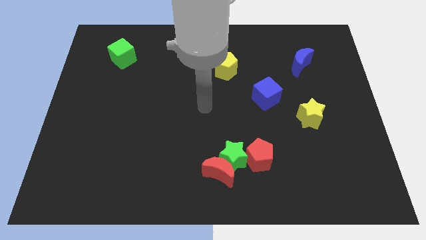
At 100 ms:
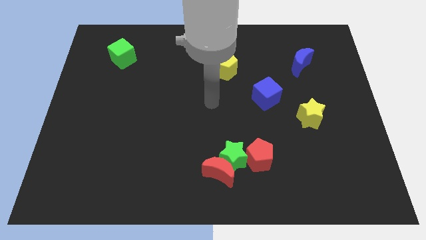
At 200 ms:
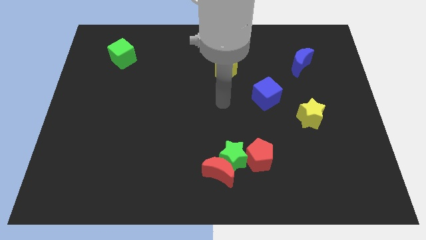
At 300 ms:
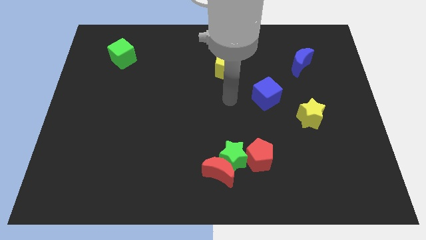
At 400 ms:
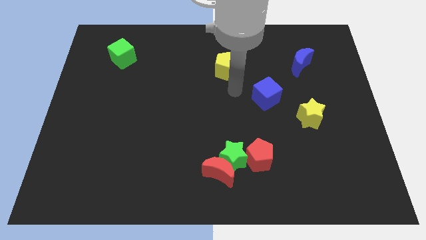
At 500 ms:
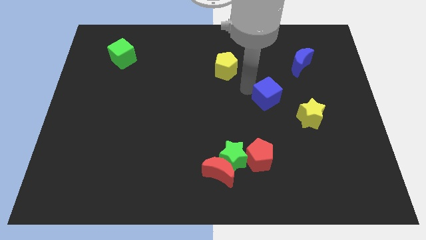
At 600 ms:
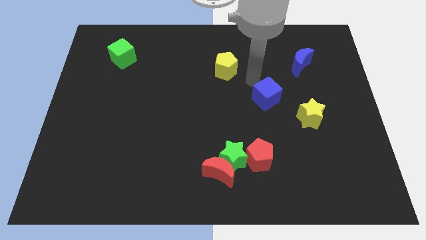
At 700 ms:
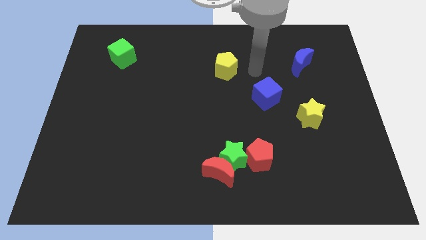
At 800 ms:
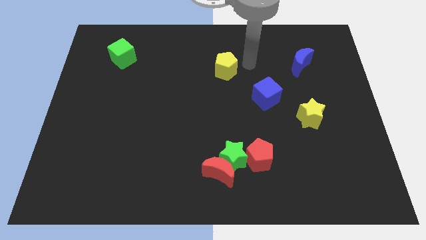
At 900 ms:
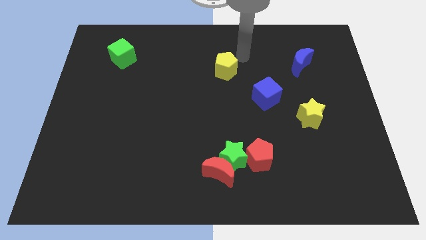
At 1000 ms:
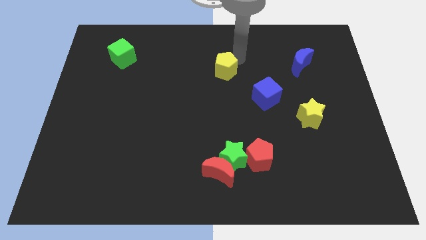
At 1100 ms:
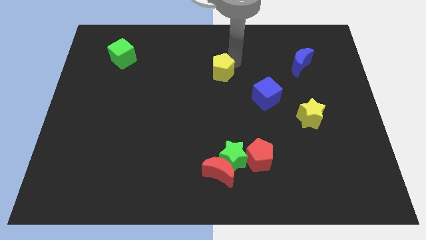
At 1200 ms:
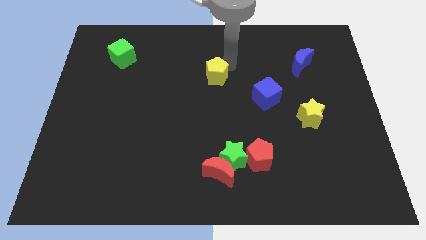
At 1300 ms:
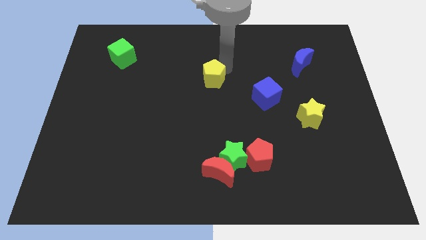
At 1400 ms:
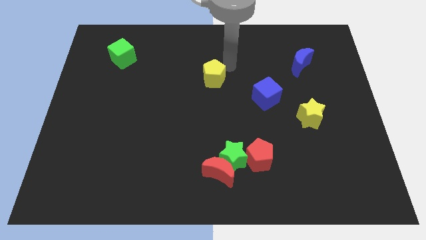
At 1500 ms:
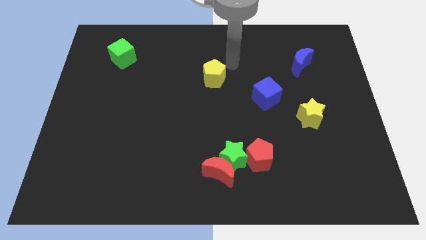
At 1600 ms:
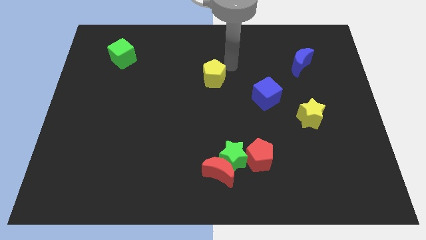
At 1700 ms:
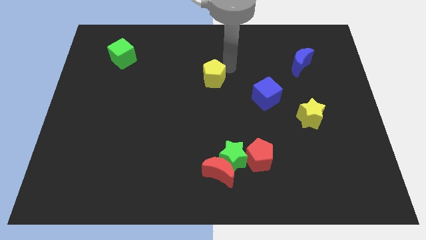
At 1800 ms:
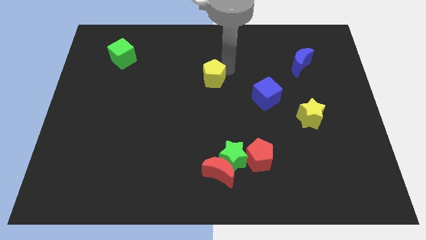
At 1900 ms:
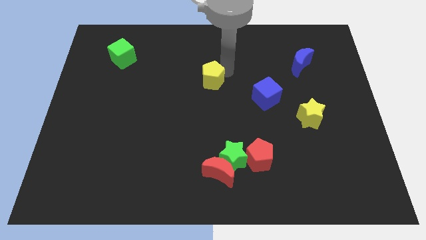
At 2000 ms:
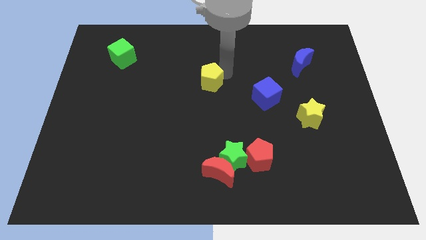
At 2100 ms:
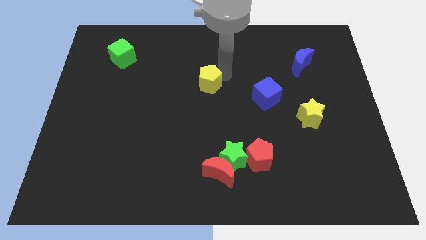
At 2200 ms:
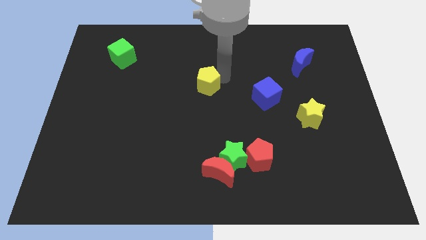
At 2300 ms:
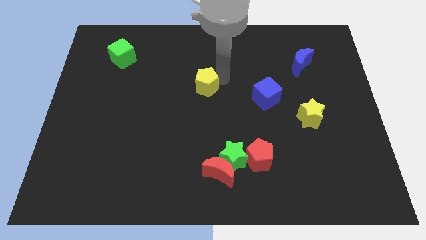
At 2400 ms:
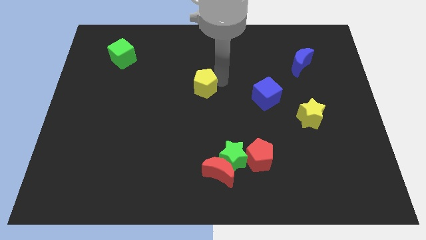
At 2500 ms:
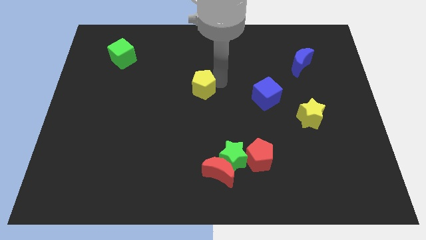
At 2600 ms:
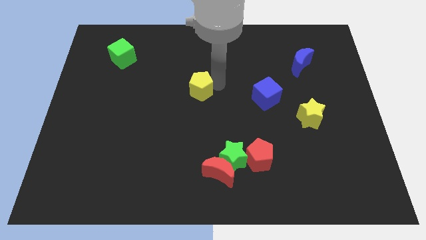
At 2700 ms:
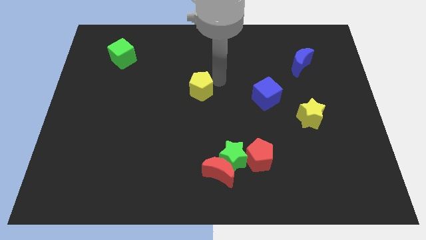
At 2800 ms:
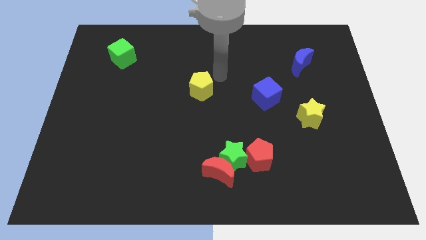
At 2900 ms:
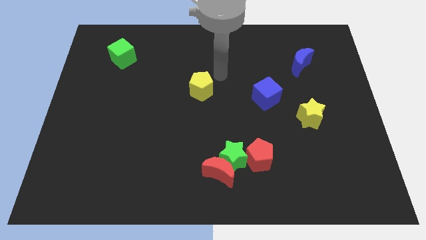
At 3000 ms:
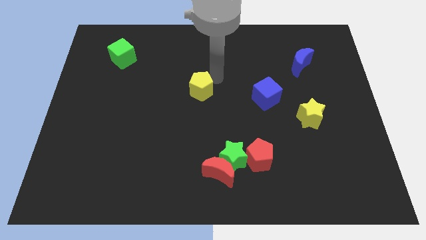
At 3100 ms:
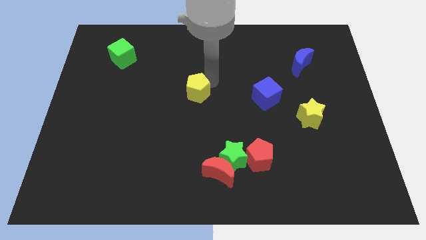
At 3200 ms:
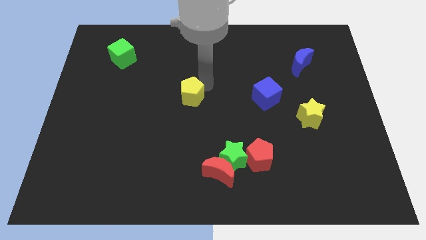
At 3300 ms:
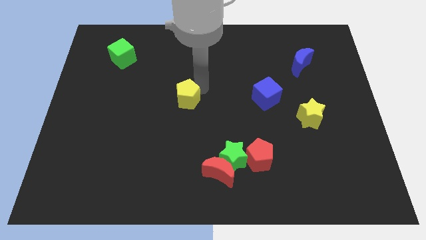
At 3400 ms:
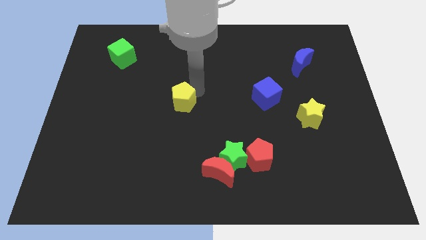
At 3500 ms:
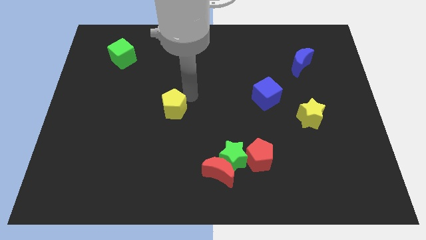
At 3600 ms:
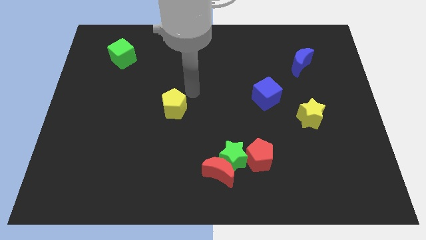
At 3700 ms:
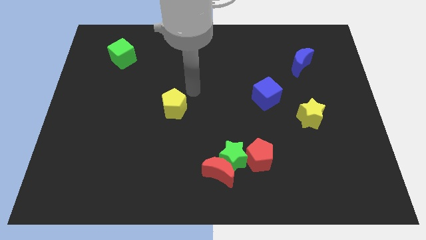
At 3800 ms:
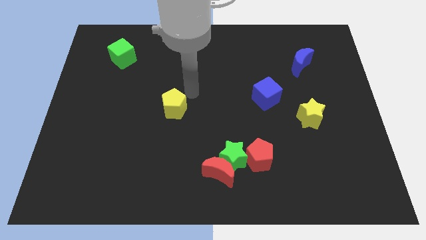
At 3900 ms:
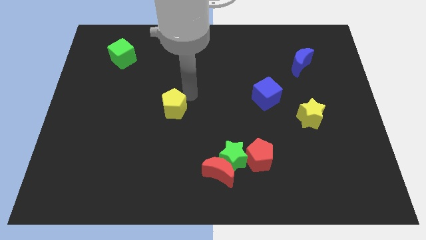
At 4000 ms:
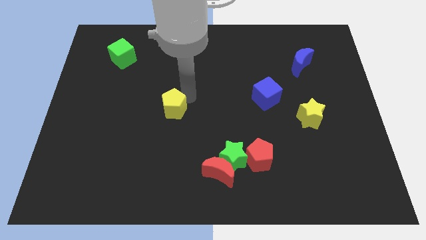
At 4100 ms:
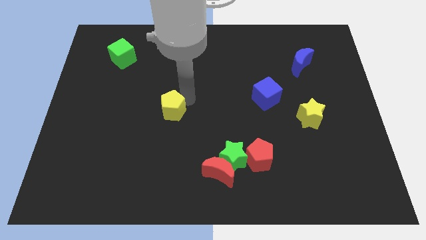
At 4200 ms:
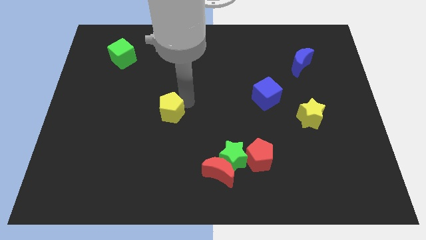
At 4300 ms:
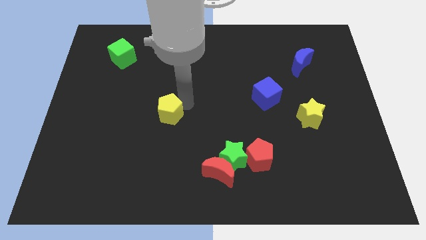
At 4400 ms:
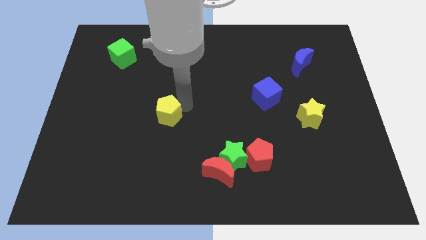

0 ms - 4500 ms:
move the yellow pentagon down and left

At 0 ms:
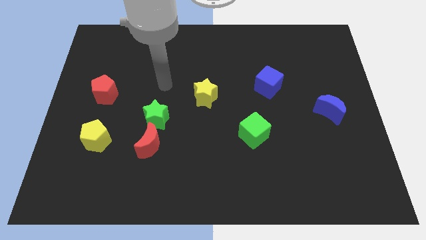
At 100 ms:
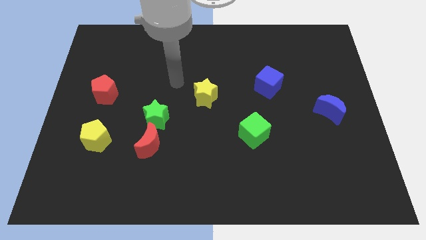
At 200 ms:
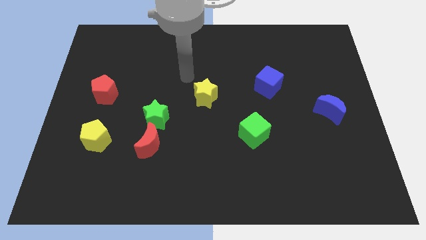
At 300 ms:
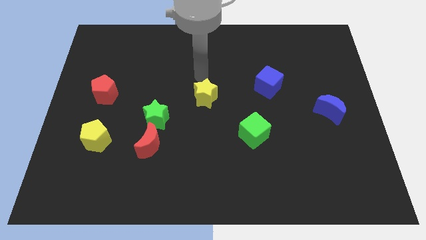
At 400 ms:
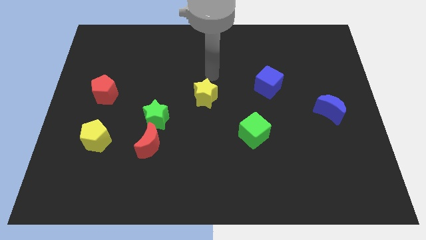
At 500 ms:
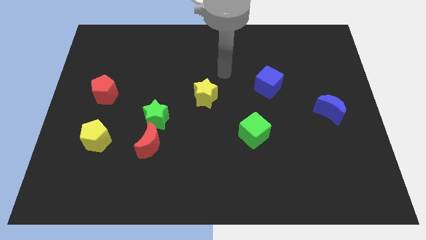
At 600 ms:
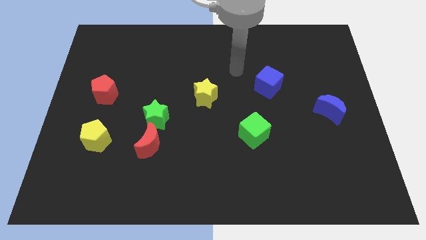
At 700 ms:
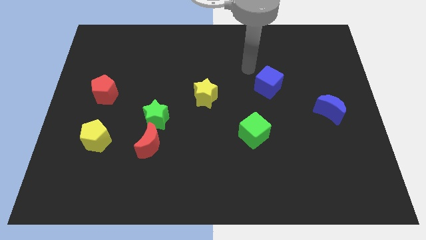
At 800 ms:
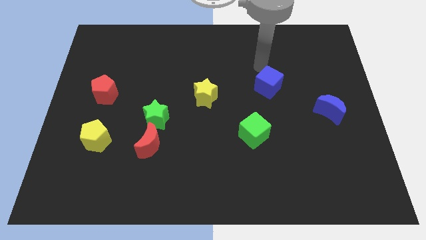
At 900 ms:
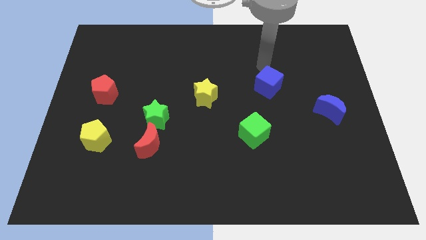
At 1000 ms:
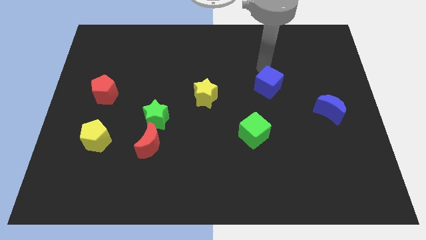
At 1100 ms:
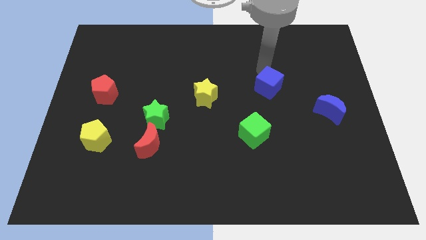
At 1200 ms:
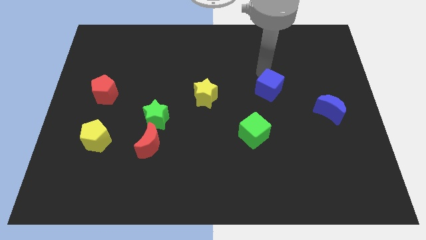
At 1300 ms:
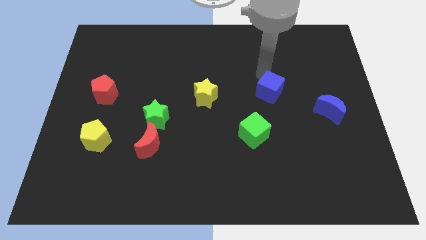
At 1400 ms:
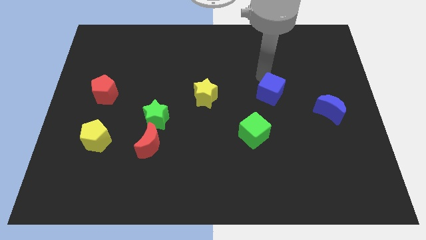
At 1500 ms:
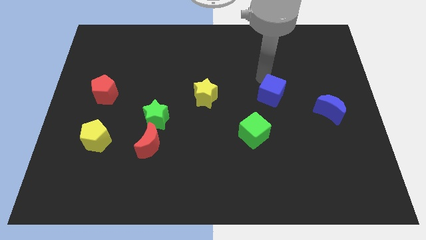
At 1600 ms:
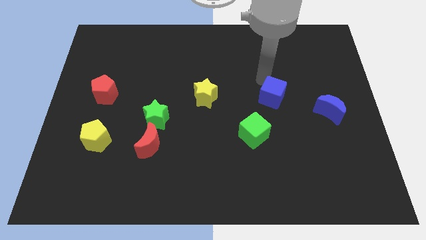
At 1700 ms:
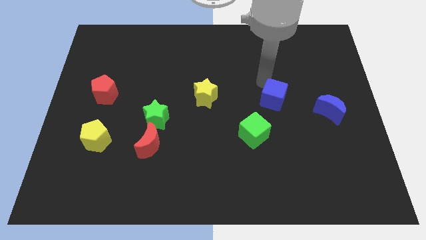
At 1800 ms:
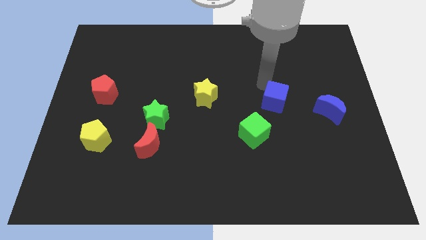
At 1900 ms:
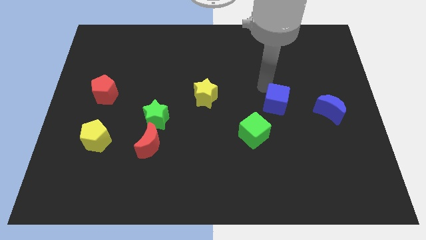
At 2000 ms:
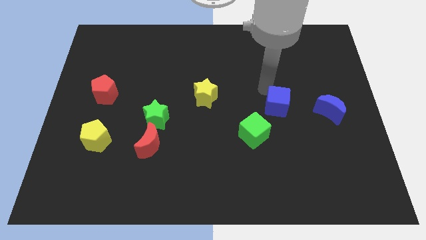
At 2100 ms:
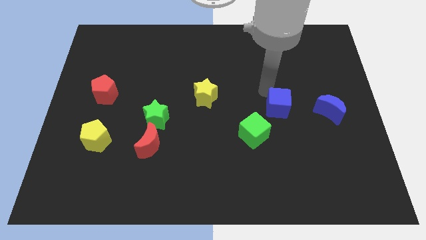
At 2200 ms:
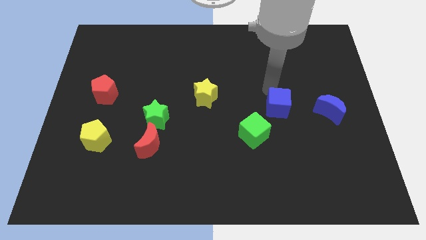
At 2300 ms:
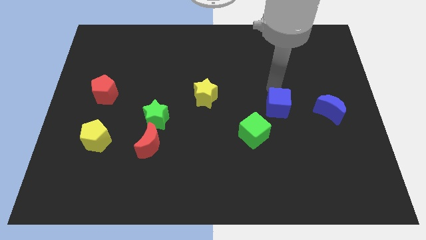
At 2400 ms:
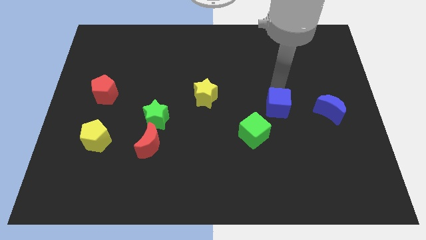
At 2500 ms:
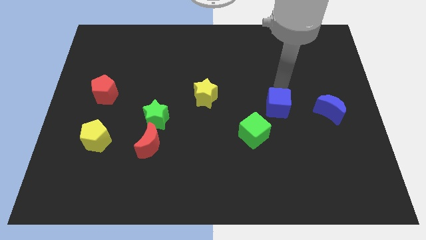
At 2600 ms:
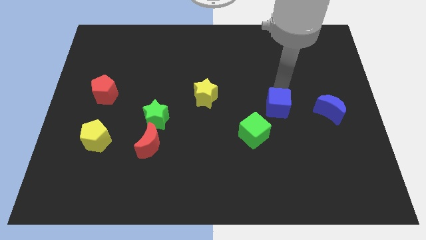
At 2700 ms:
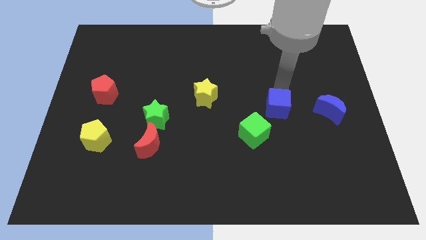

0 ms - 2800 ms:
slightly move the blue cube downwards

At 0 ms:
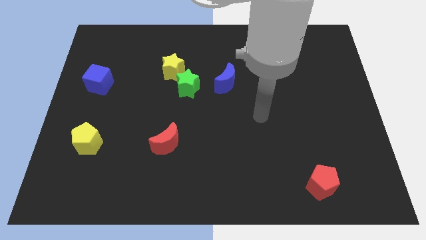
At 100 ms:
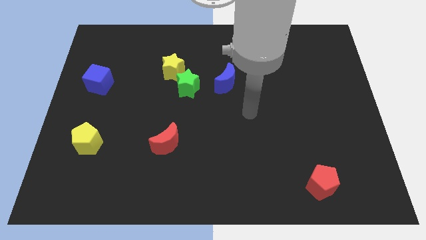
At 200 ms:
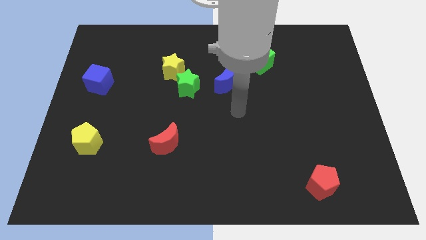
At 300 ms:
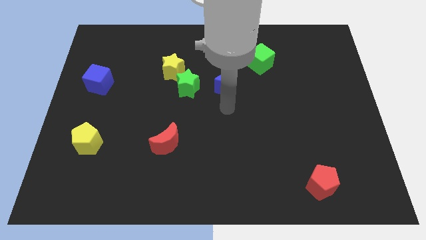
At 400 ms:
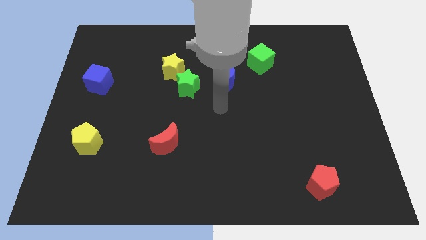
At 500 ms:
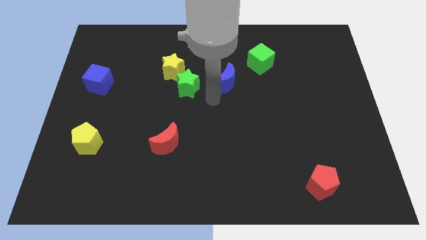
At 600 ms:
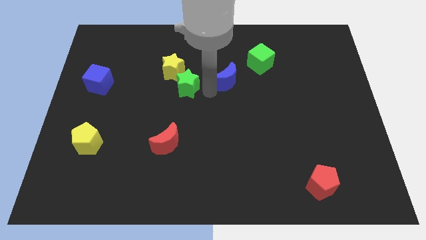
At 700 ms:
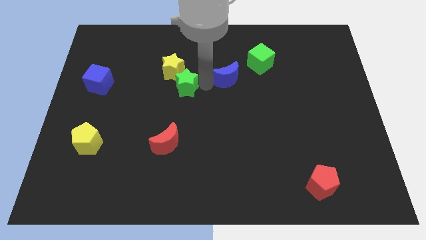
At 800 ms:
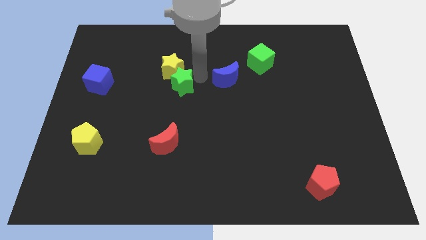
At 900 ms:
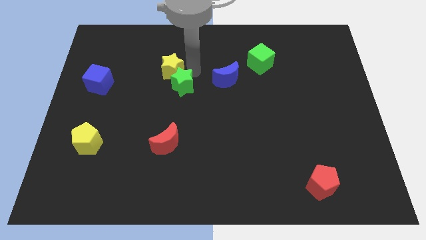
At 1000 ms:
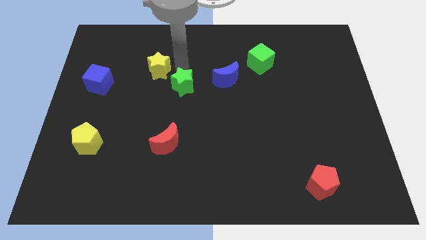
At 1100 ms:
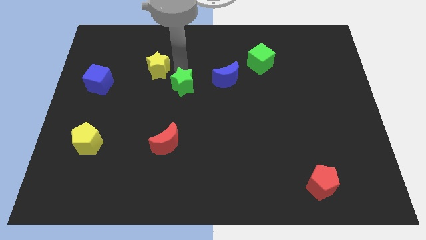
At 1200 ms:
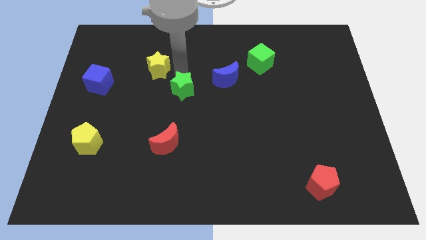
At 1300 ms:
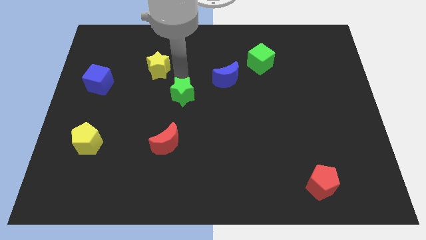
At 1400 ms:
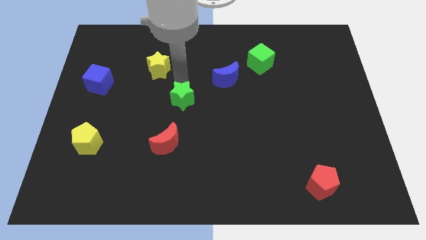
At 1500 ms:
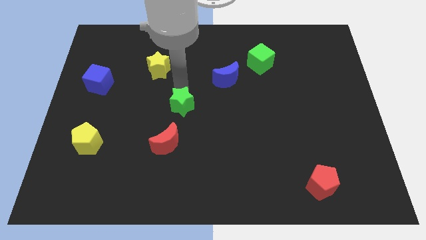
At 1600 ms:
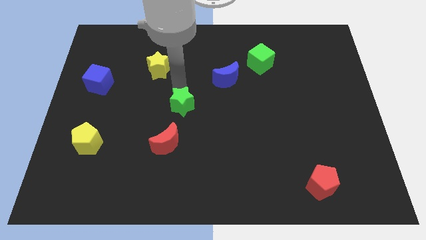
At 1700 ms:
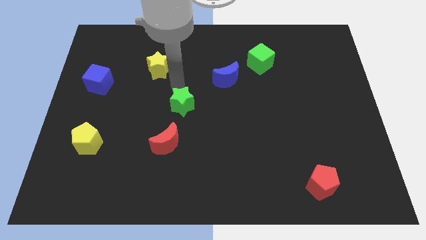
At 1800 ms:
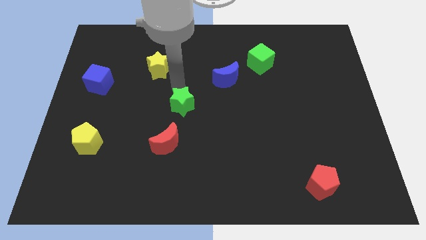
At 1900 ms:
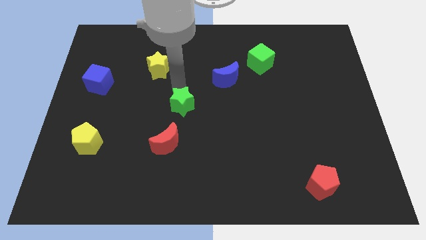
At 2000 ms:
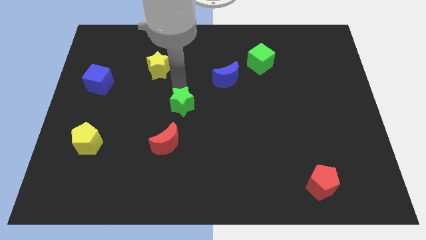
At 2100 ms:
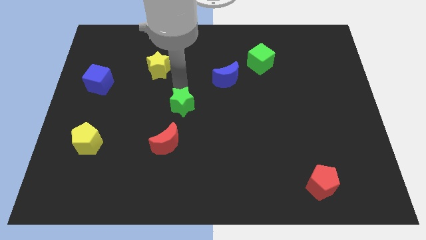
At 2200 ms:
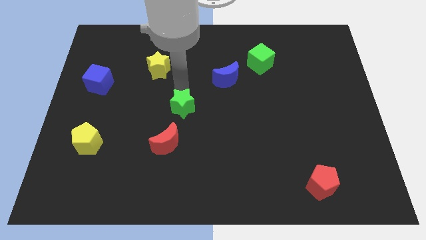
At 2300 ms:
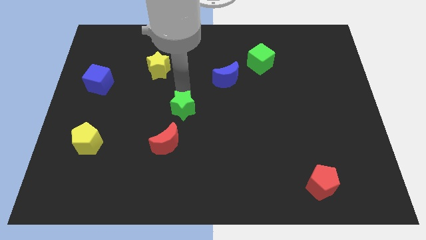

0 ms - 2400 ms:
slightly slide the green star down
